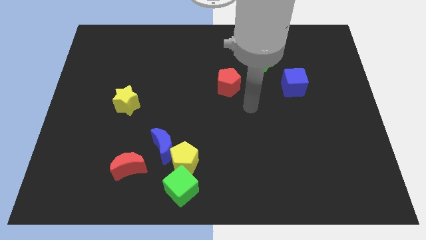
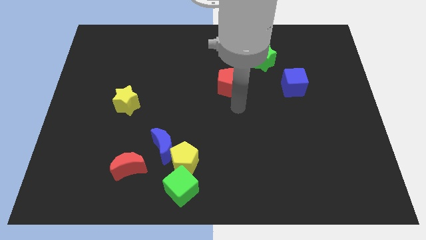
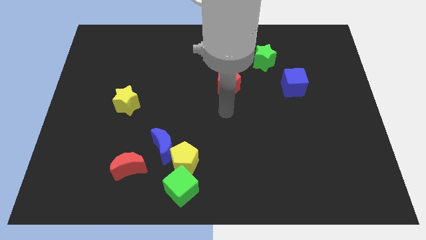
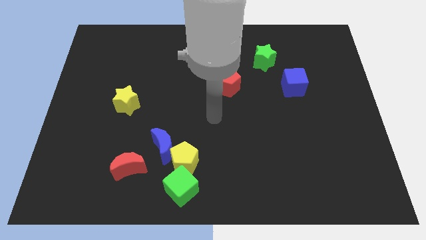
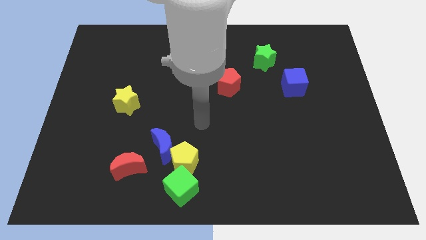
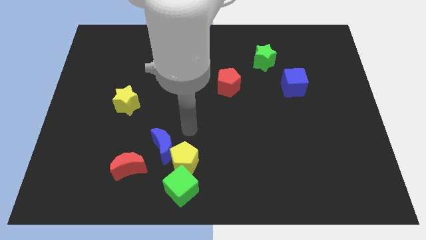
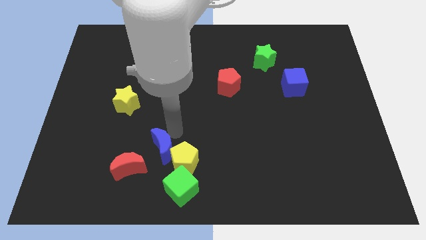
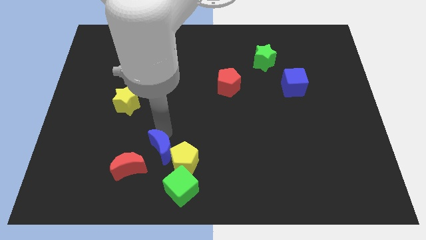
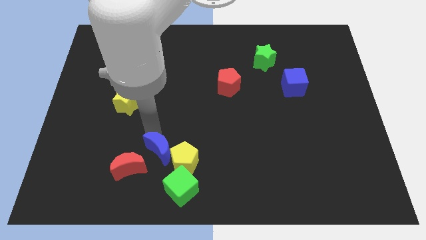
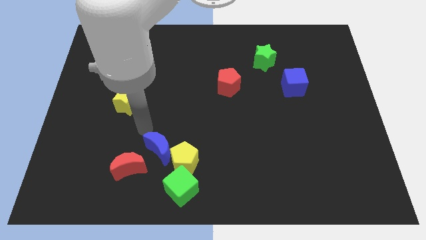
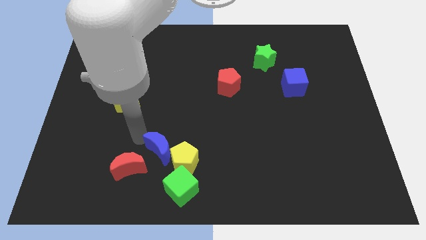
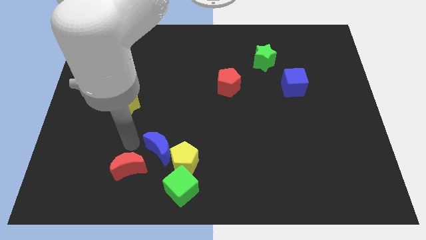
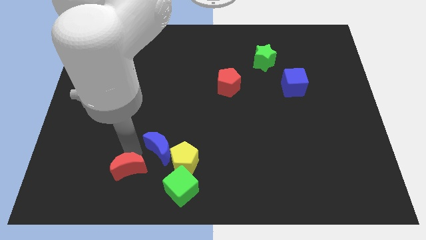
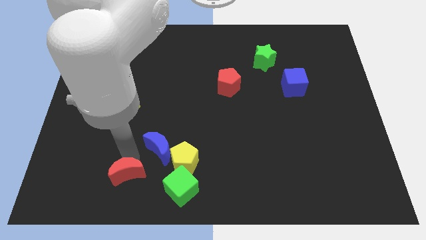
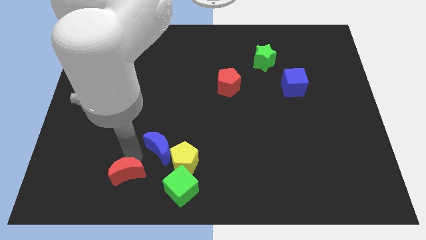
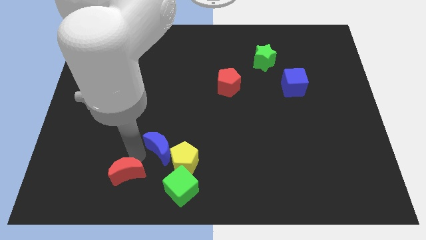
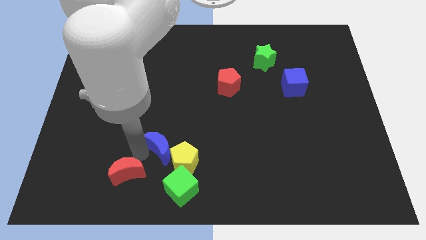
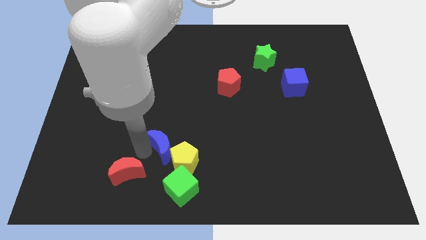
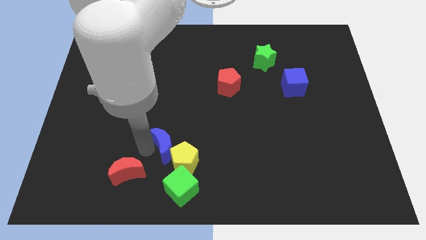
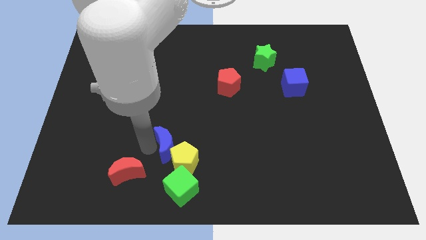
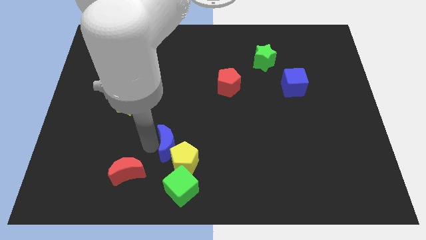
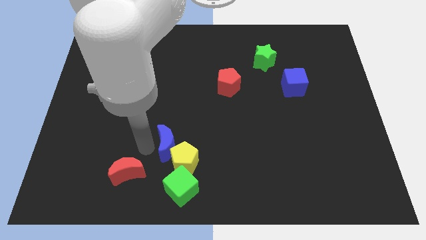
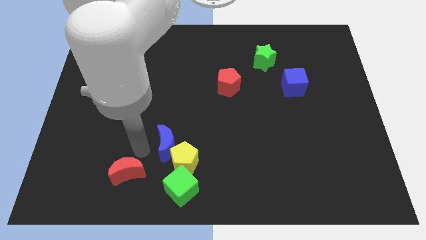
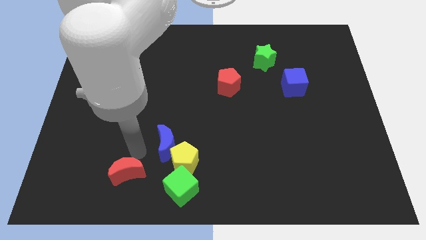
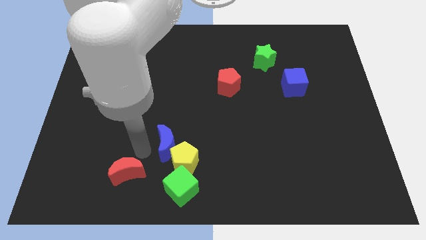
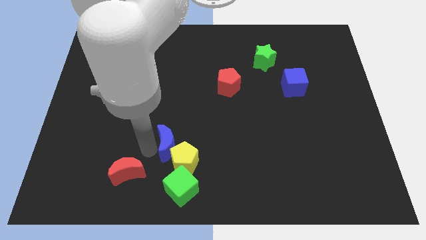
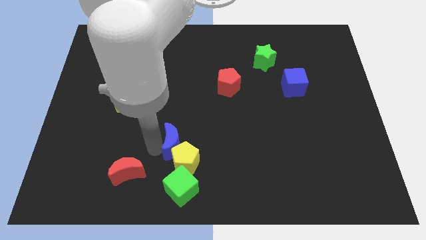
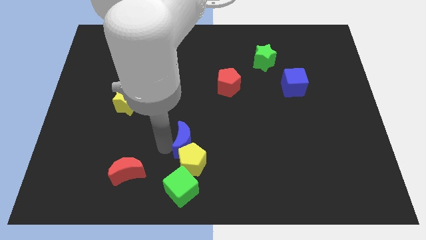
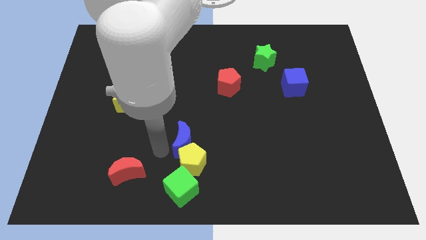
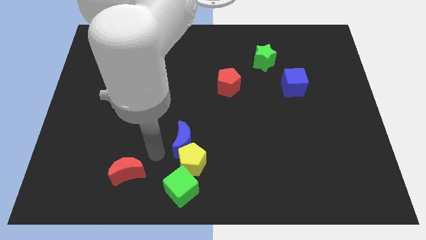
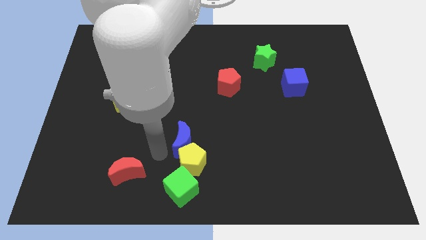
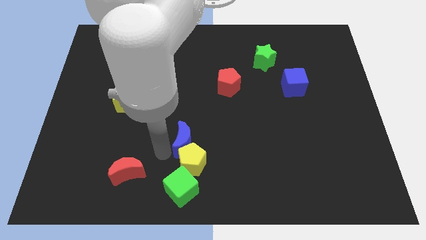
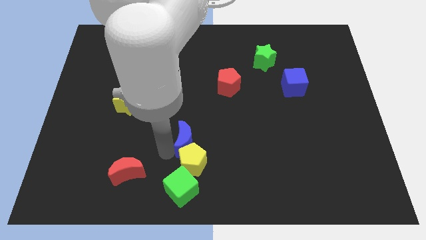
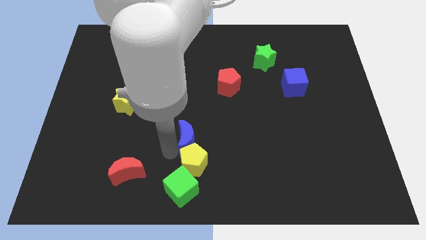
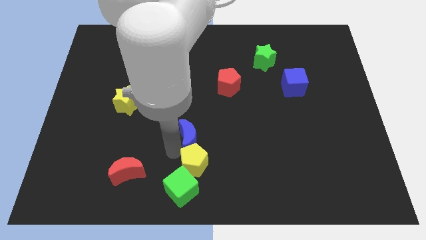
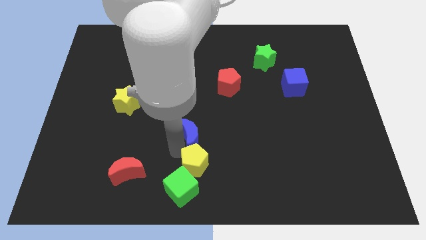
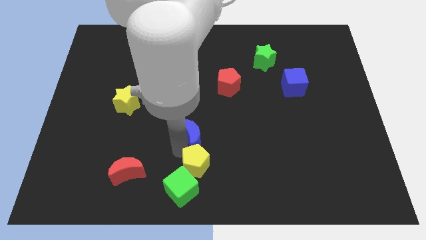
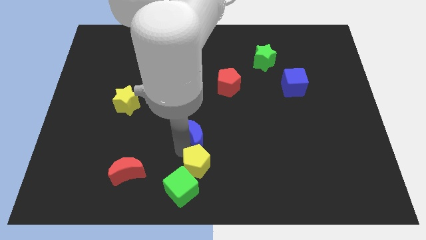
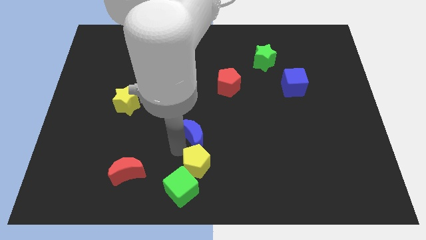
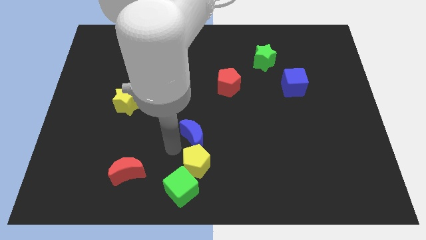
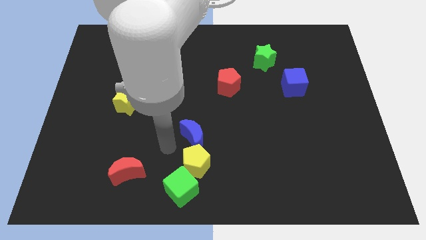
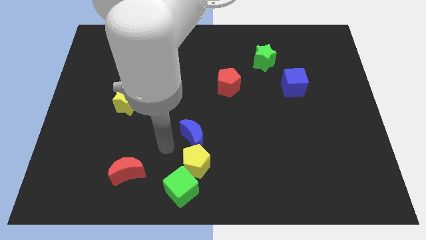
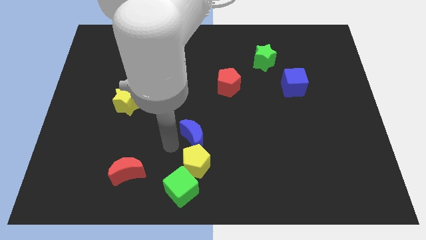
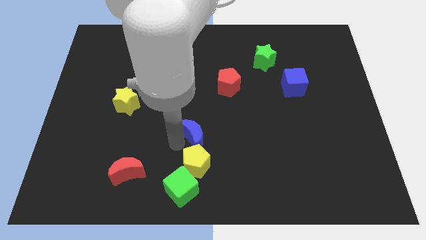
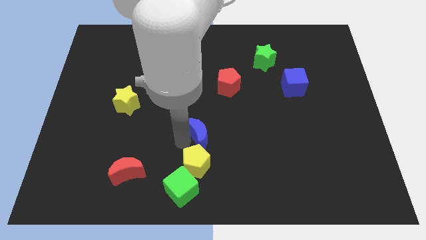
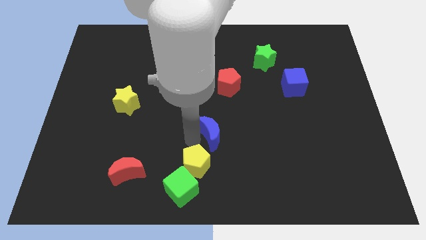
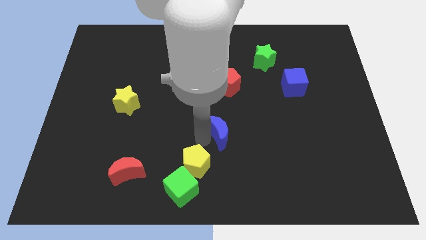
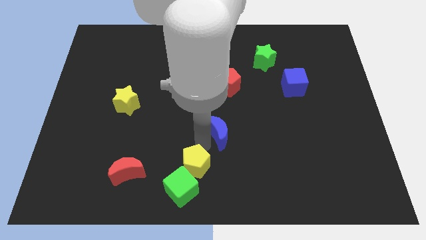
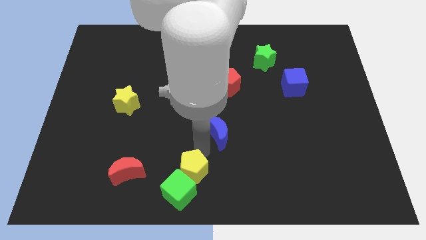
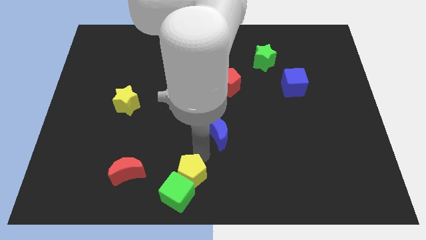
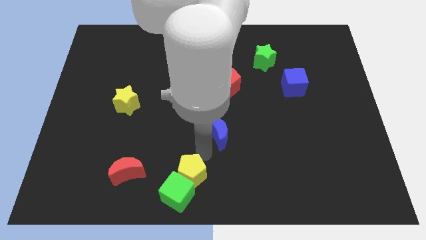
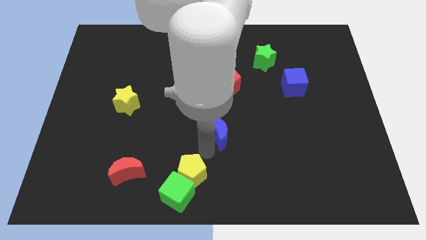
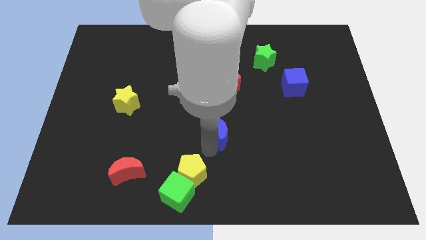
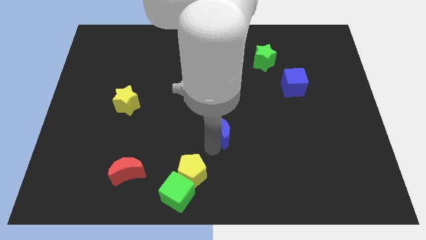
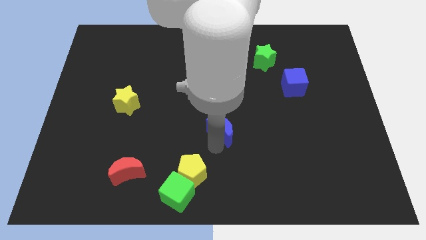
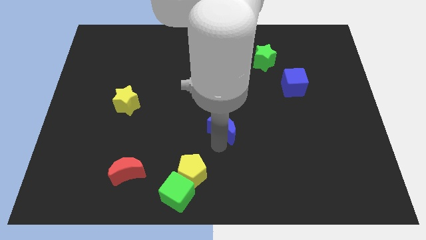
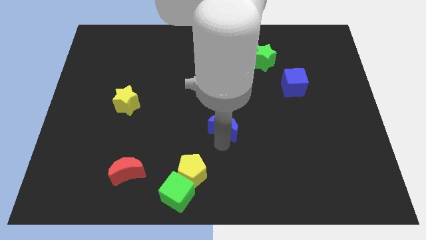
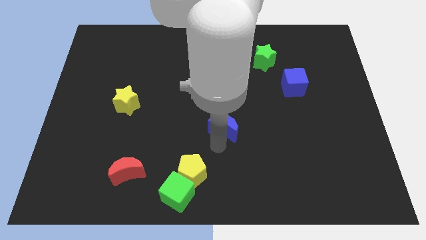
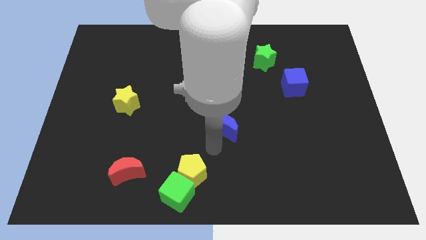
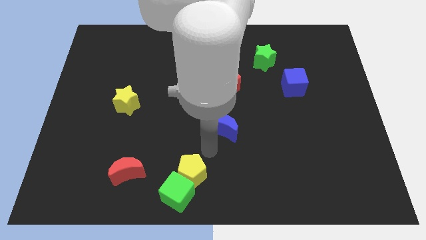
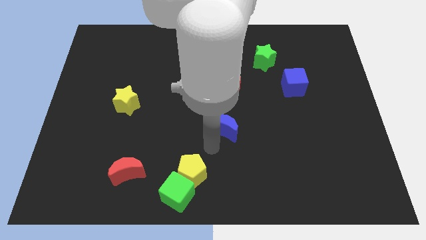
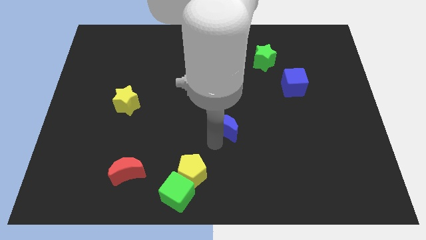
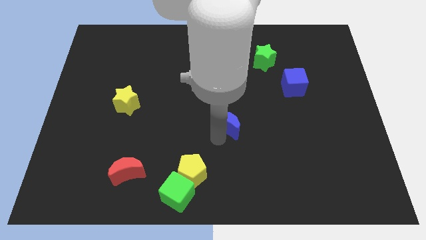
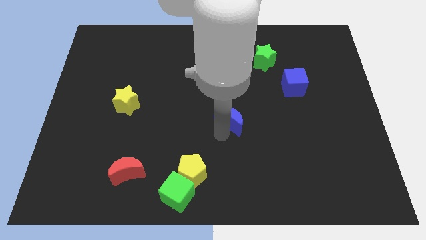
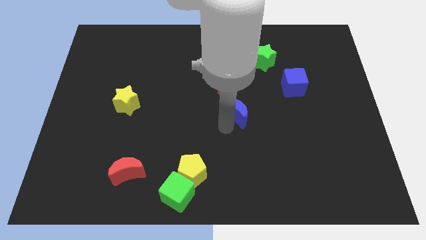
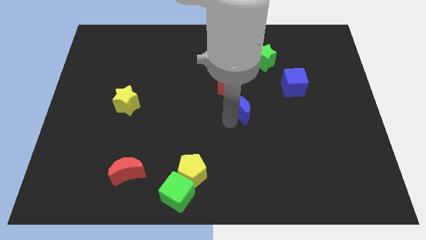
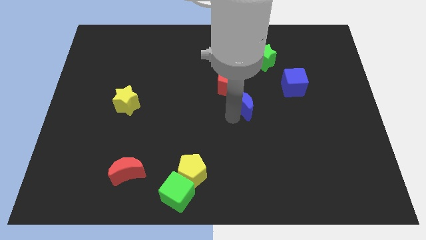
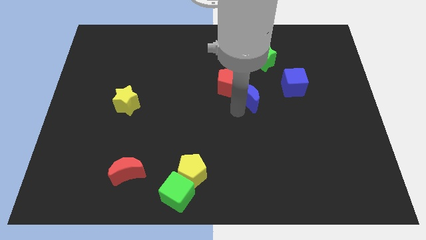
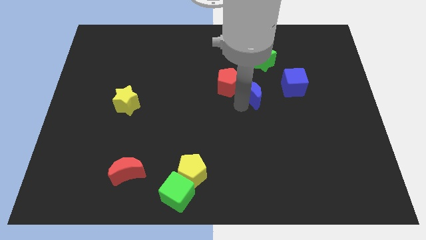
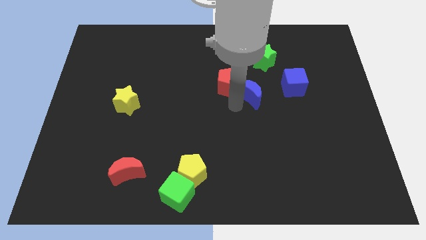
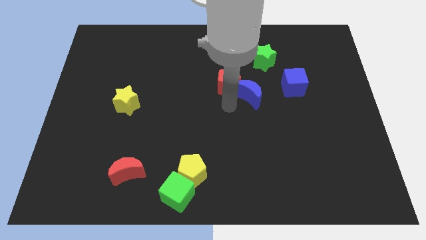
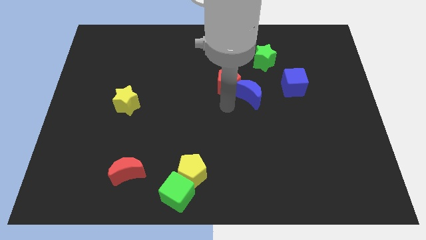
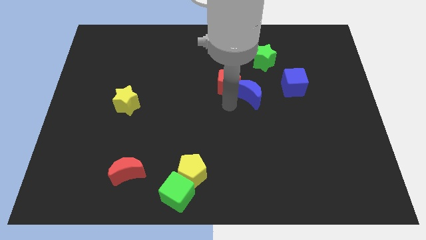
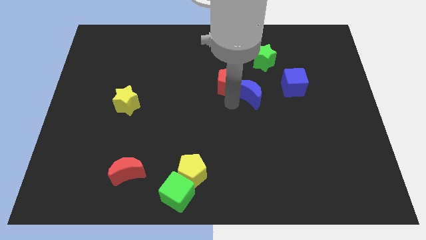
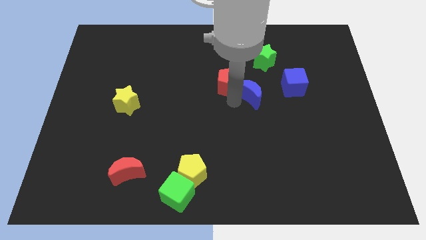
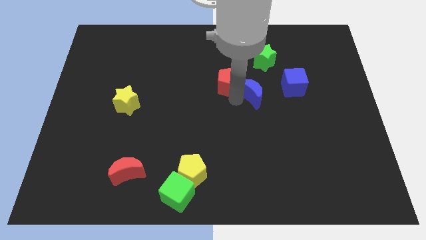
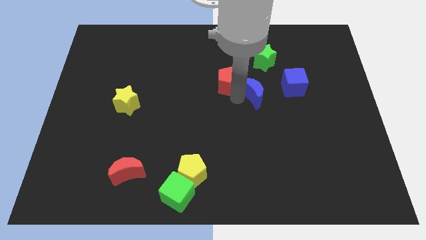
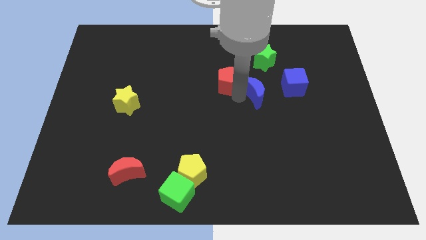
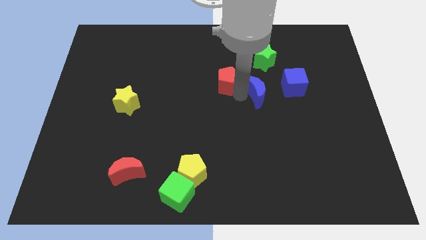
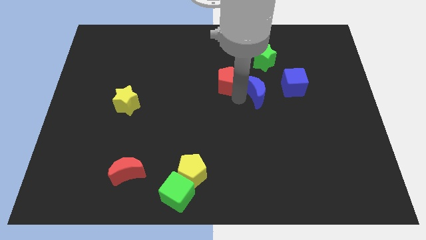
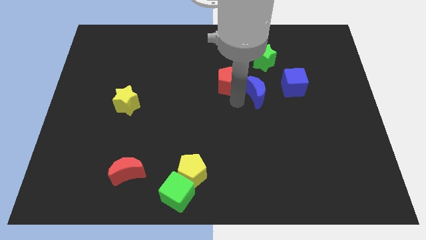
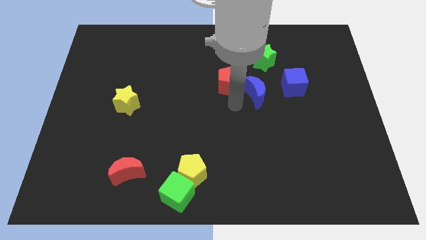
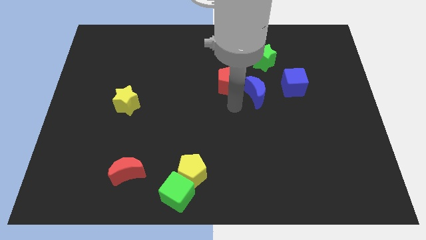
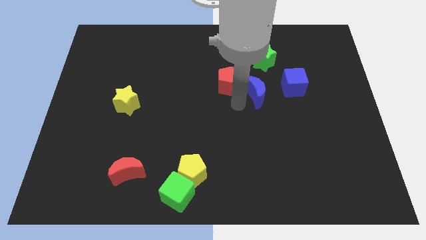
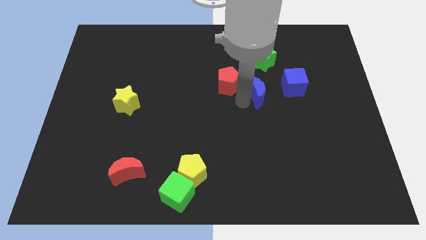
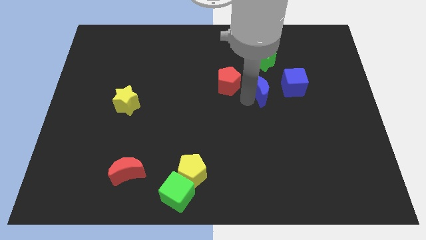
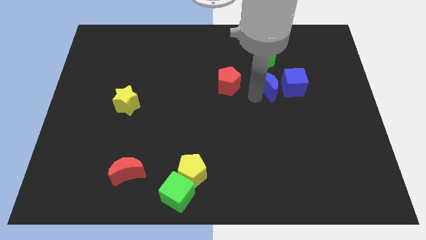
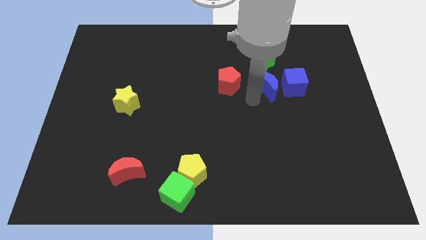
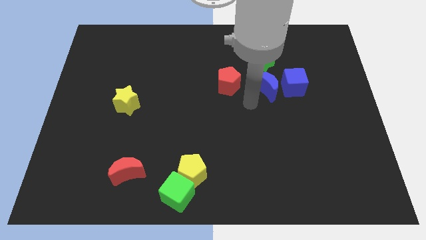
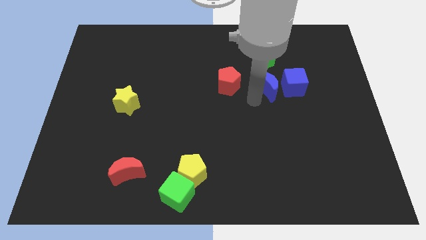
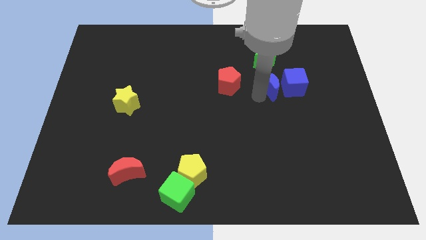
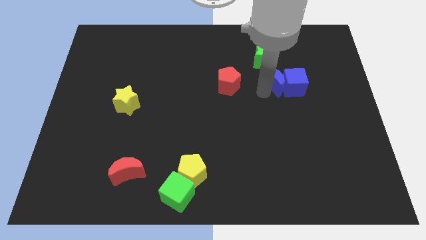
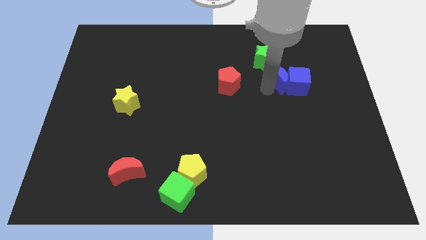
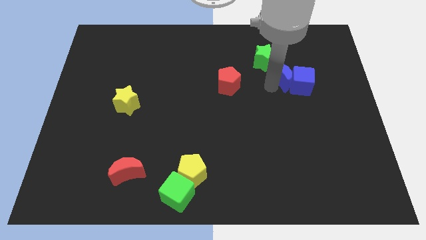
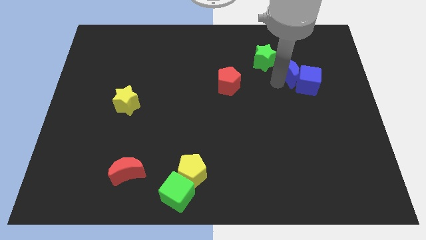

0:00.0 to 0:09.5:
put the blue moon right of the green star
